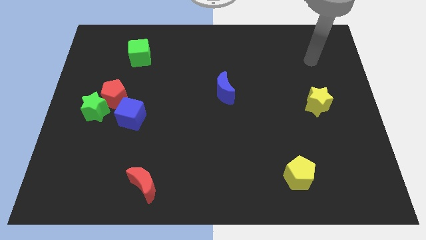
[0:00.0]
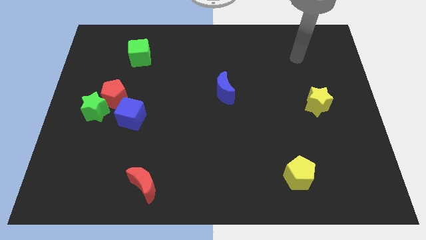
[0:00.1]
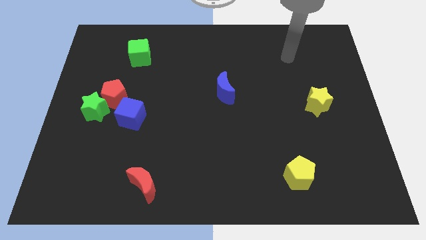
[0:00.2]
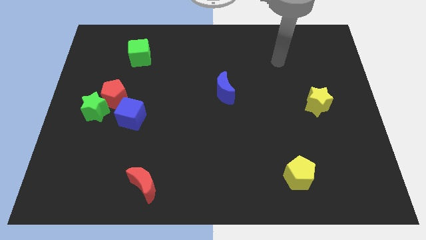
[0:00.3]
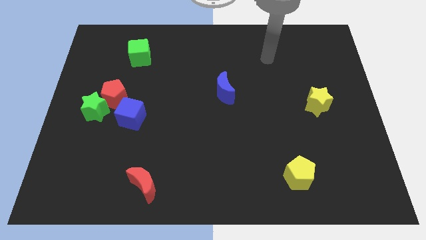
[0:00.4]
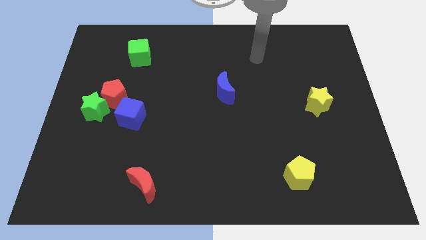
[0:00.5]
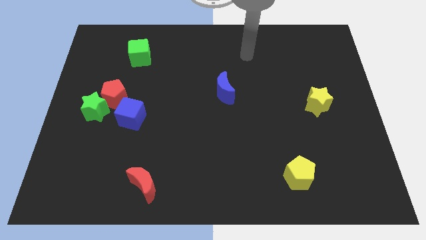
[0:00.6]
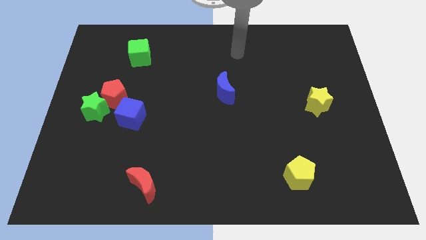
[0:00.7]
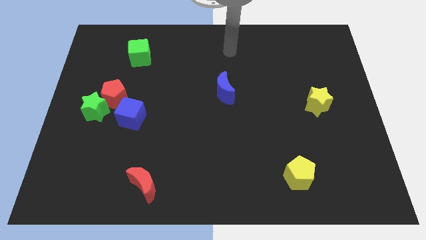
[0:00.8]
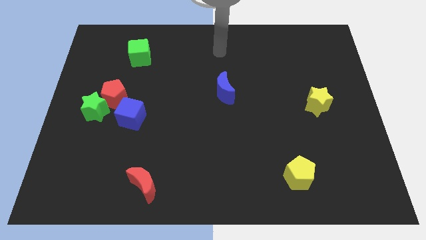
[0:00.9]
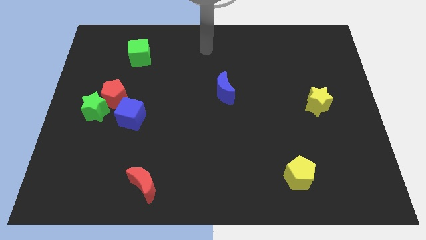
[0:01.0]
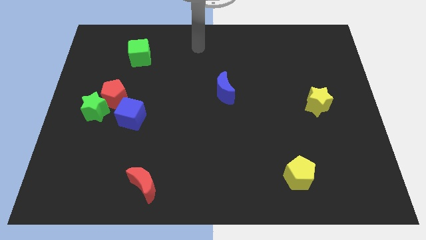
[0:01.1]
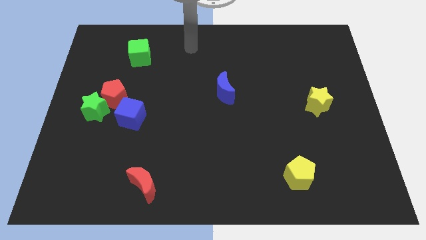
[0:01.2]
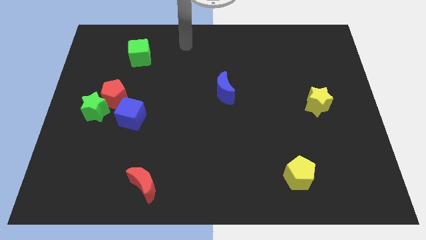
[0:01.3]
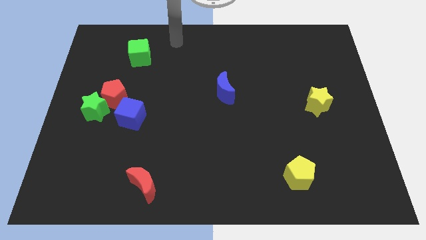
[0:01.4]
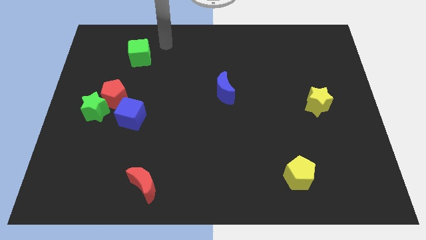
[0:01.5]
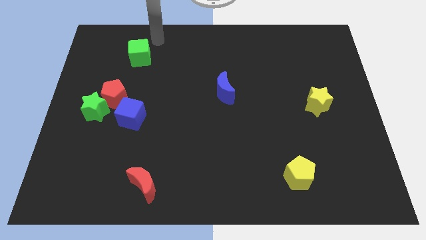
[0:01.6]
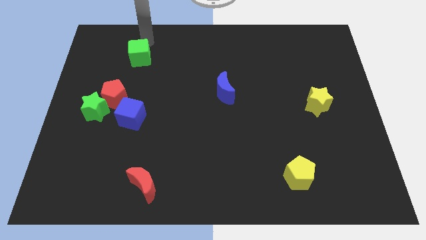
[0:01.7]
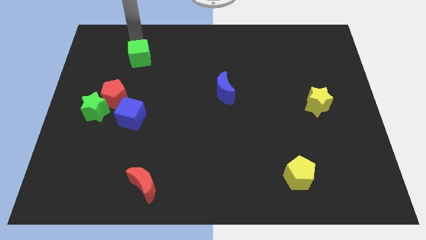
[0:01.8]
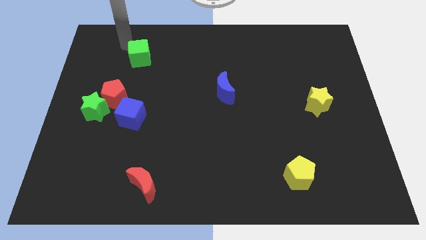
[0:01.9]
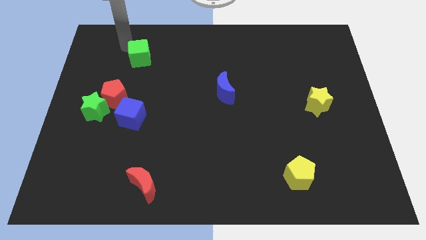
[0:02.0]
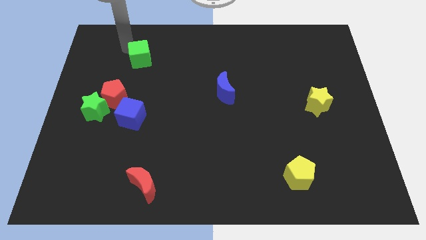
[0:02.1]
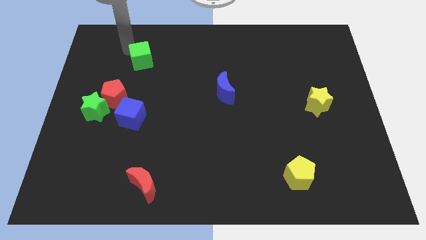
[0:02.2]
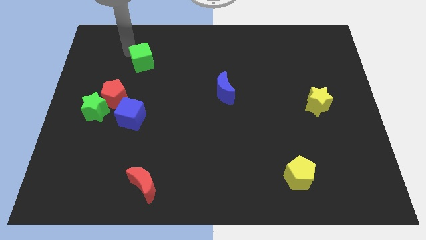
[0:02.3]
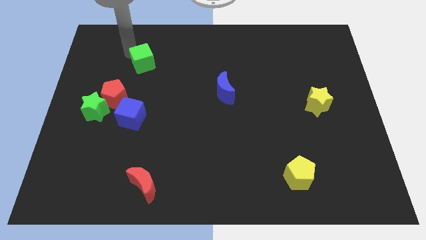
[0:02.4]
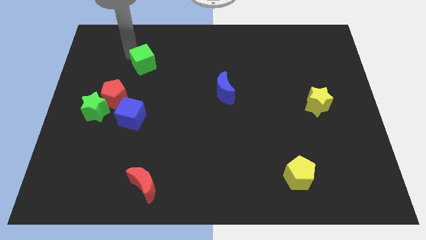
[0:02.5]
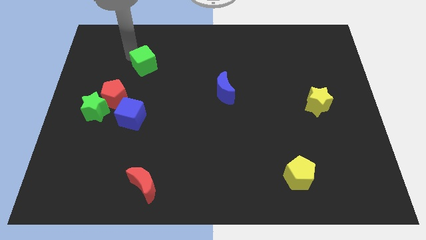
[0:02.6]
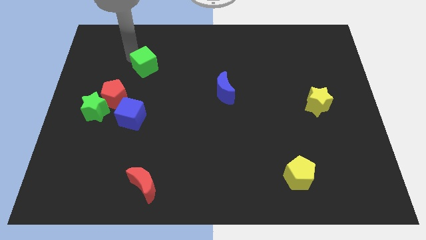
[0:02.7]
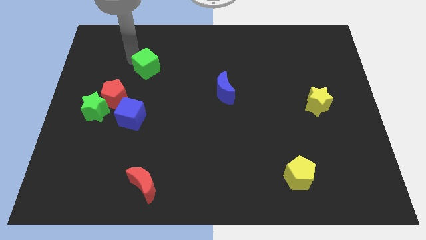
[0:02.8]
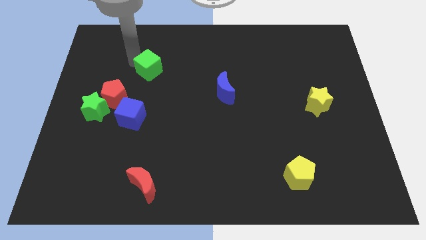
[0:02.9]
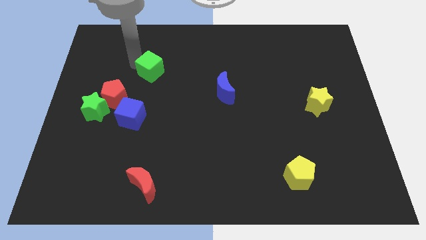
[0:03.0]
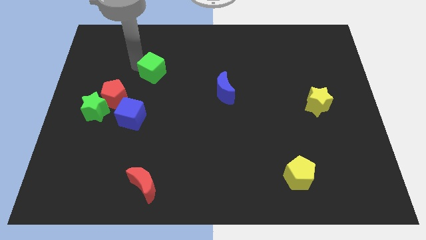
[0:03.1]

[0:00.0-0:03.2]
move the green cube a little downwards and to the right

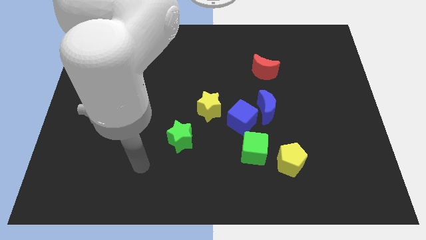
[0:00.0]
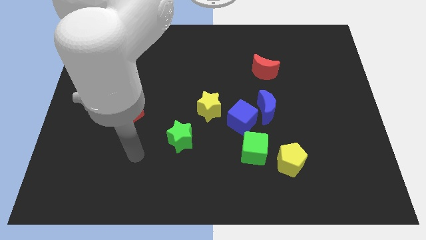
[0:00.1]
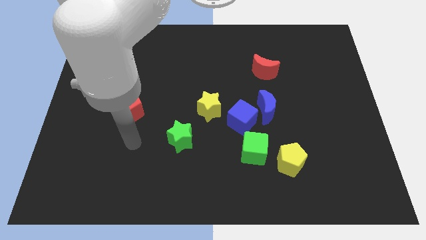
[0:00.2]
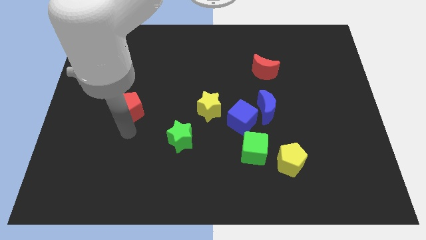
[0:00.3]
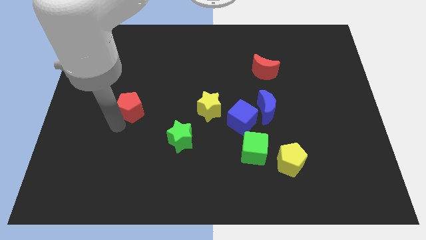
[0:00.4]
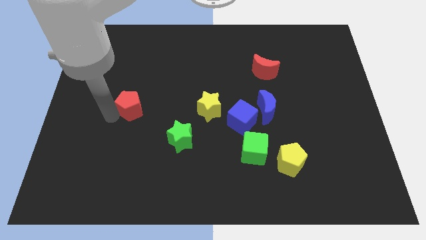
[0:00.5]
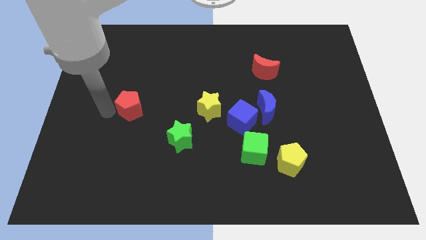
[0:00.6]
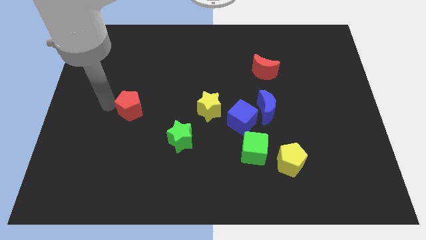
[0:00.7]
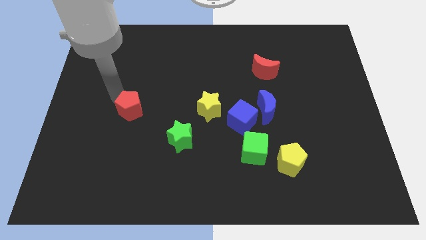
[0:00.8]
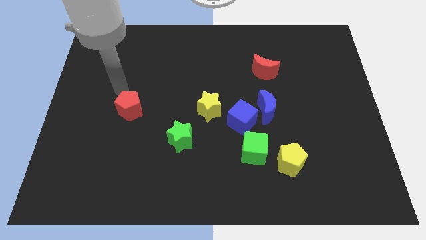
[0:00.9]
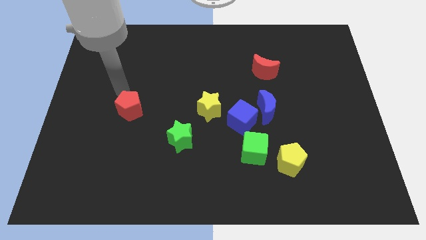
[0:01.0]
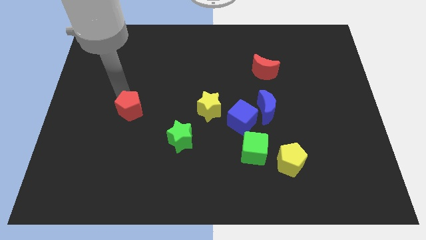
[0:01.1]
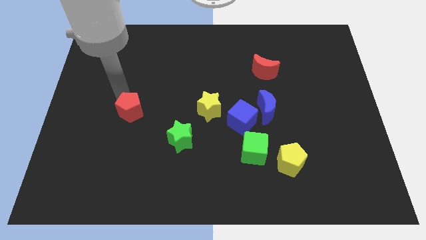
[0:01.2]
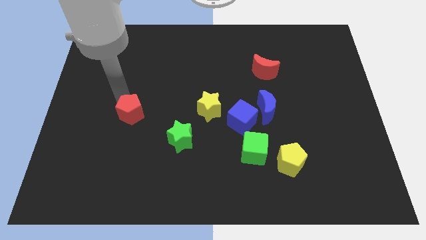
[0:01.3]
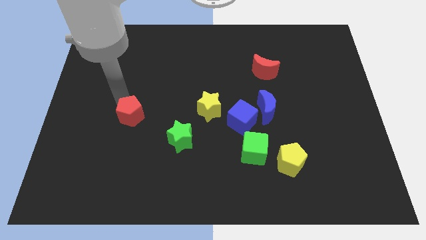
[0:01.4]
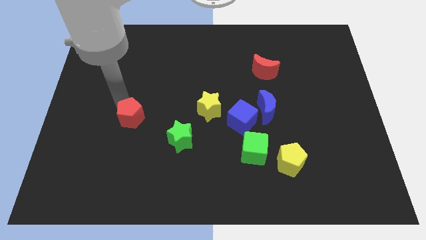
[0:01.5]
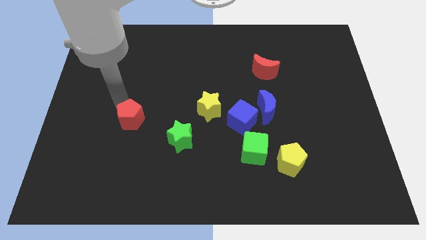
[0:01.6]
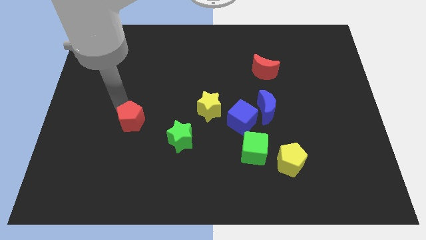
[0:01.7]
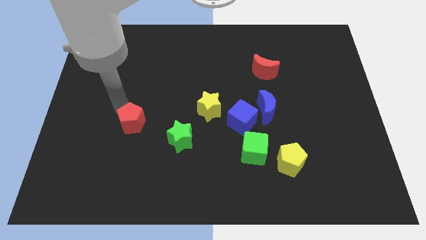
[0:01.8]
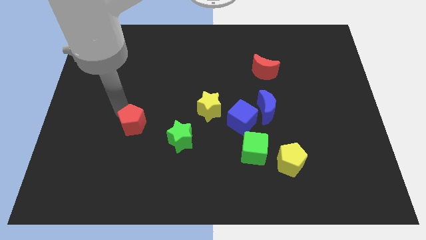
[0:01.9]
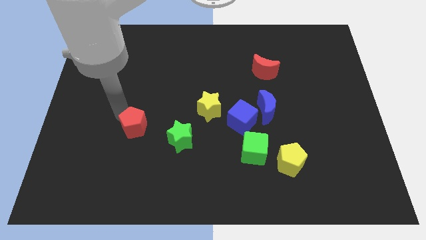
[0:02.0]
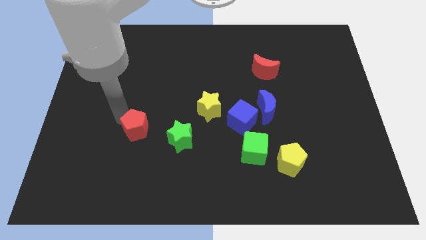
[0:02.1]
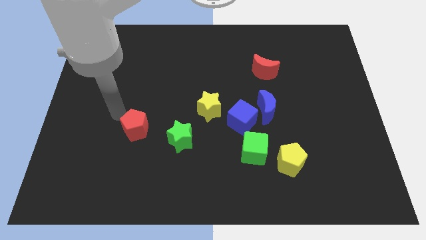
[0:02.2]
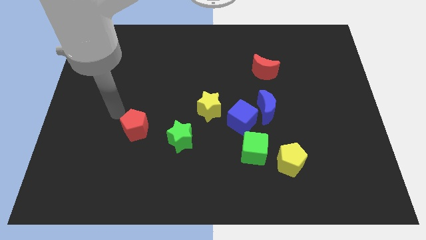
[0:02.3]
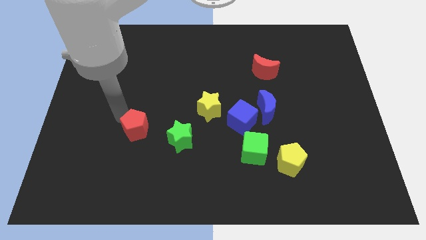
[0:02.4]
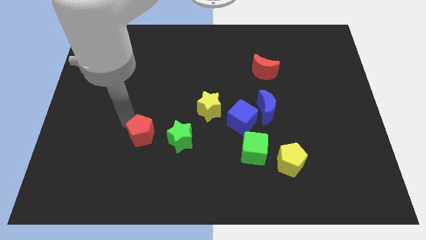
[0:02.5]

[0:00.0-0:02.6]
push the red pentagon down and to the right somewhat

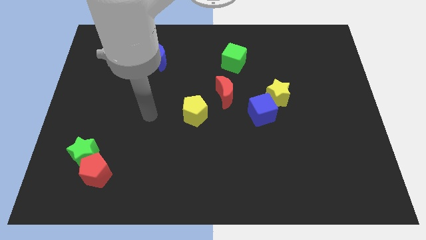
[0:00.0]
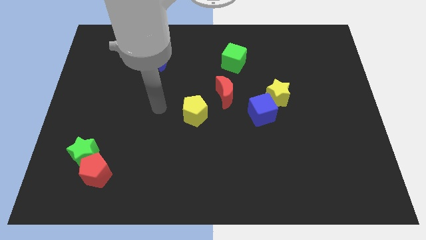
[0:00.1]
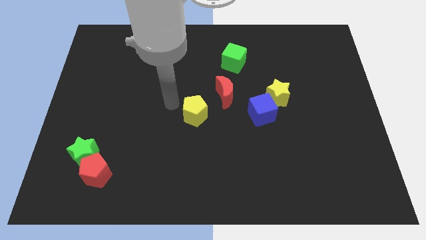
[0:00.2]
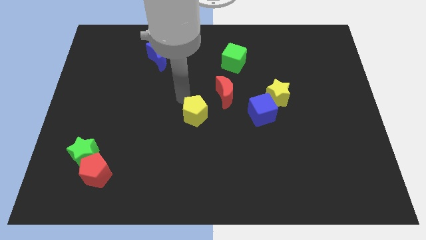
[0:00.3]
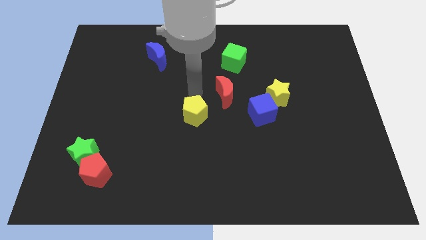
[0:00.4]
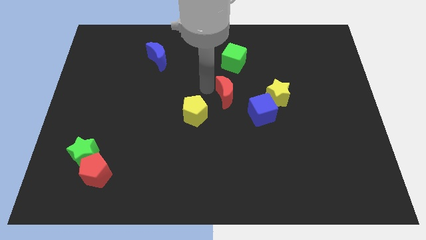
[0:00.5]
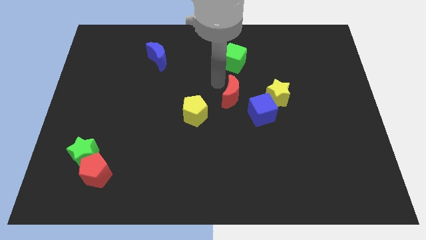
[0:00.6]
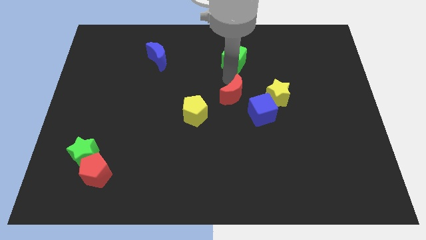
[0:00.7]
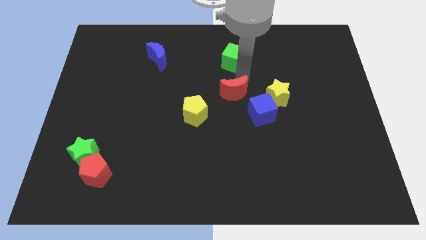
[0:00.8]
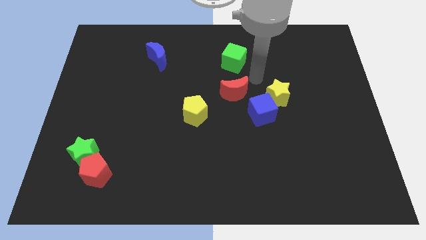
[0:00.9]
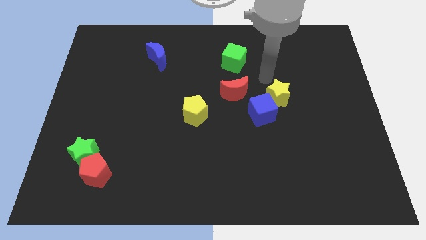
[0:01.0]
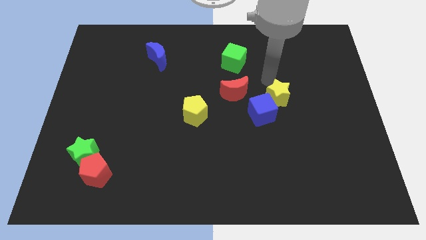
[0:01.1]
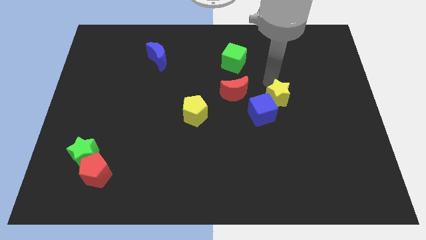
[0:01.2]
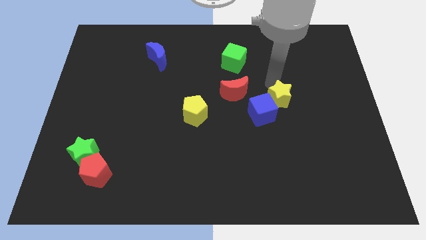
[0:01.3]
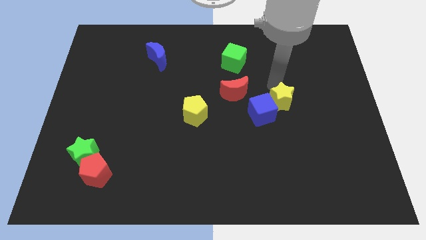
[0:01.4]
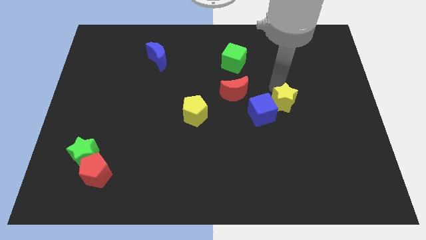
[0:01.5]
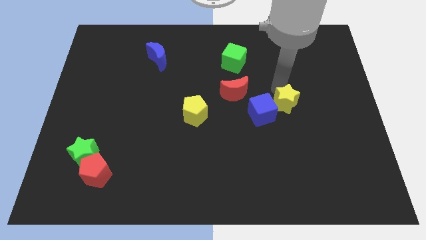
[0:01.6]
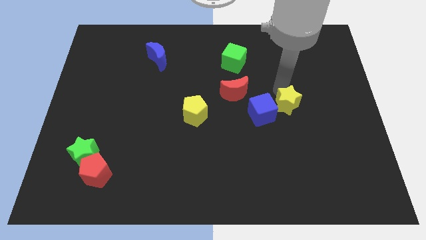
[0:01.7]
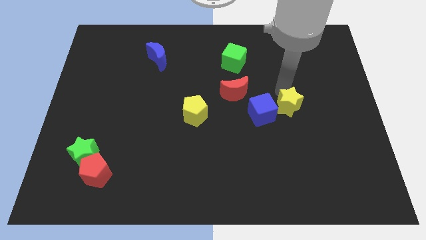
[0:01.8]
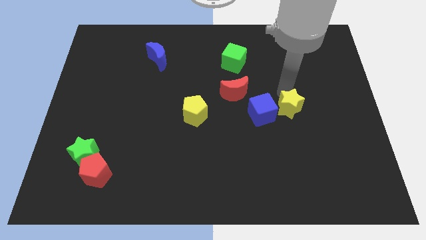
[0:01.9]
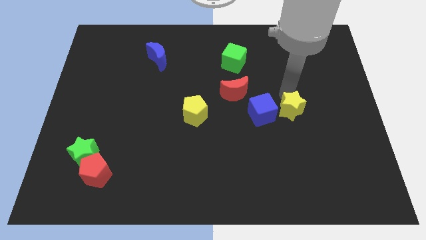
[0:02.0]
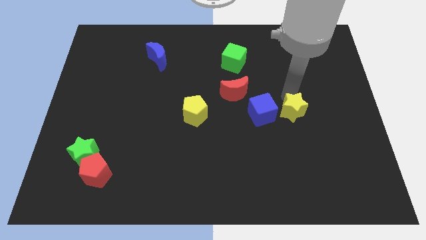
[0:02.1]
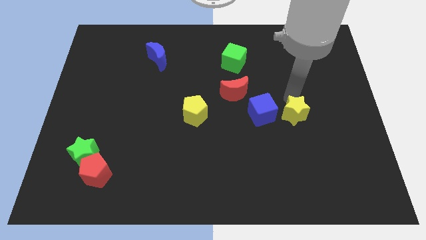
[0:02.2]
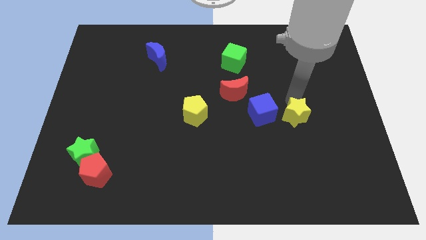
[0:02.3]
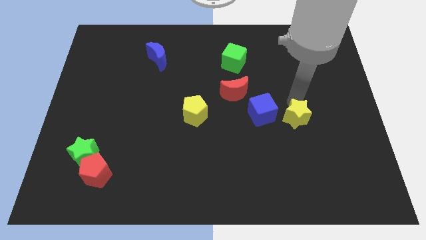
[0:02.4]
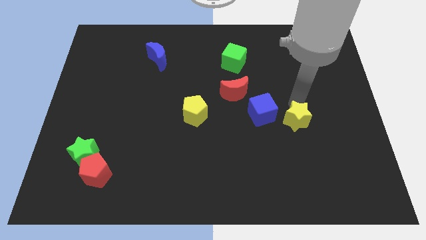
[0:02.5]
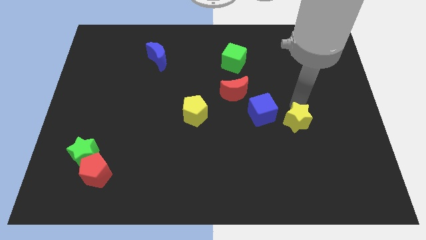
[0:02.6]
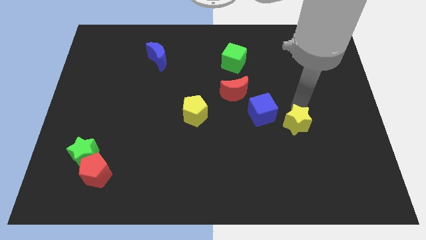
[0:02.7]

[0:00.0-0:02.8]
push the yellow star downwards a little bit
